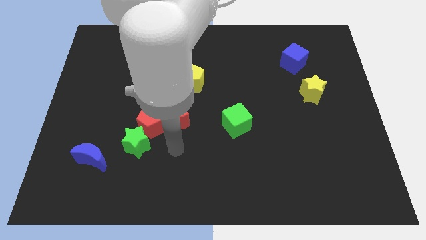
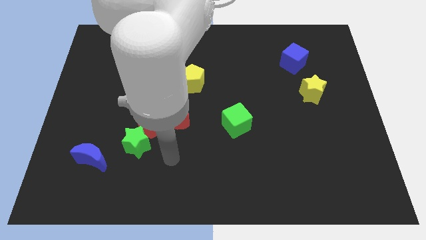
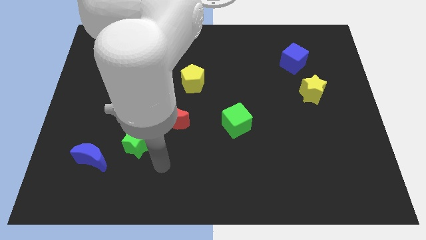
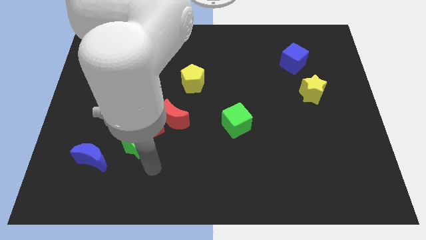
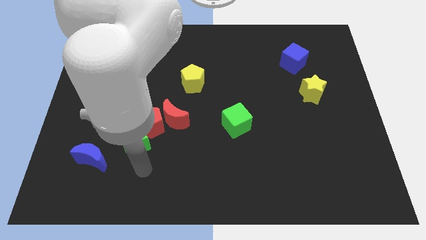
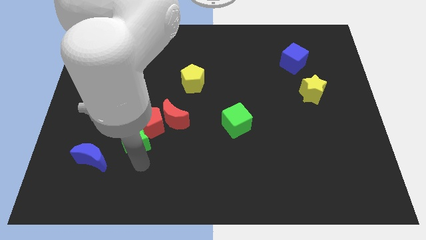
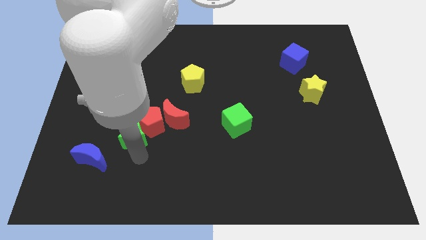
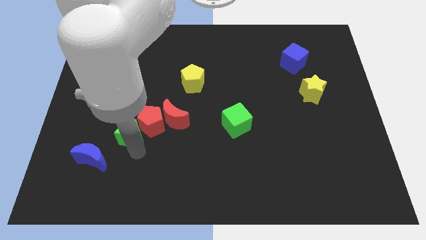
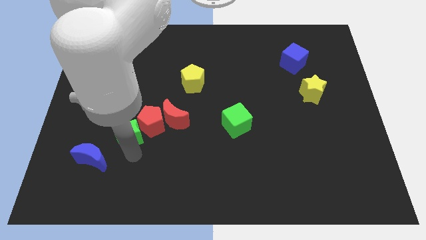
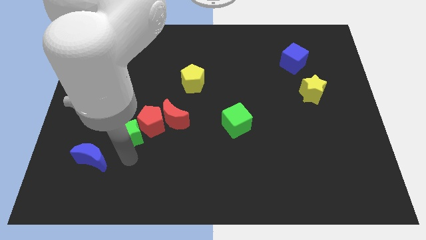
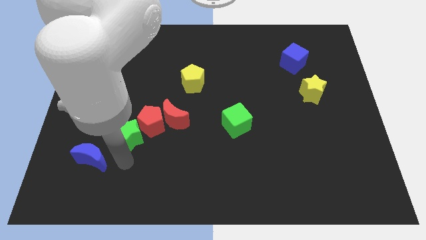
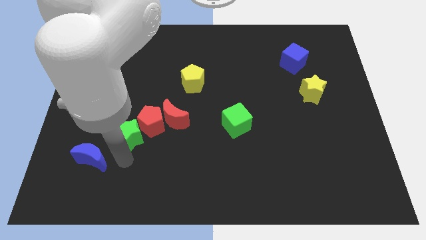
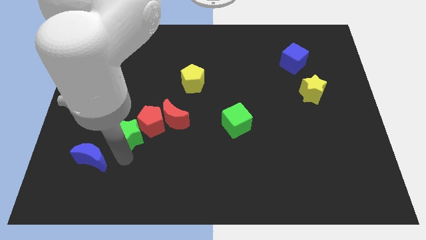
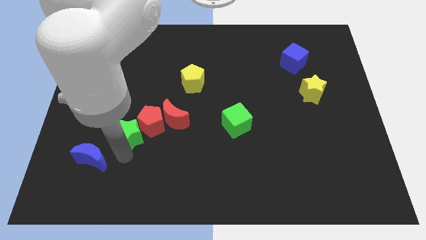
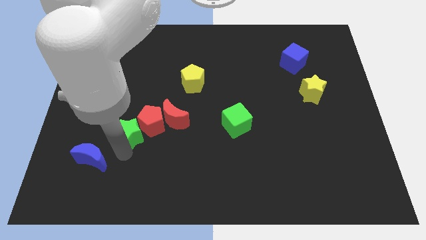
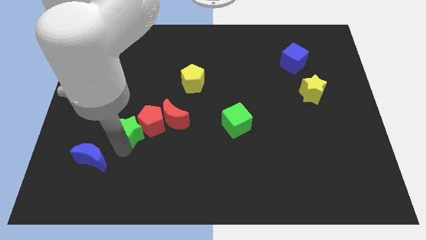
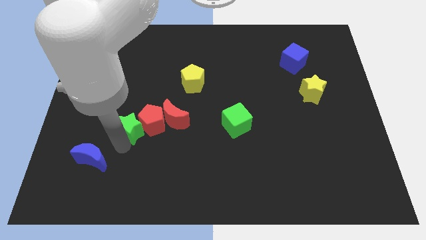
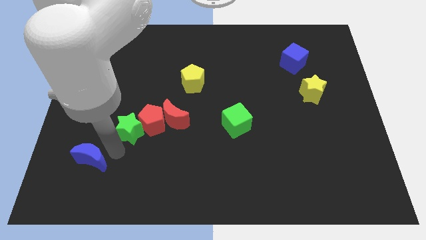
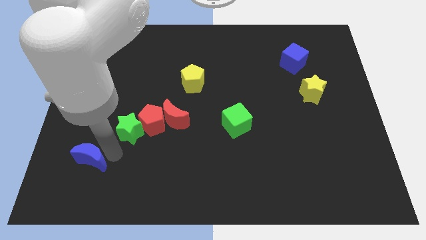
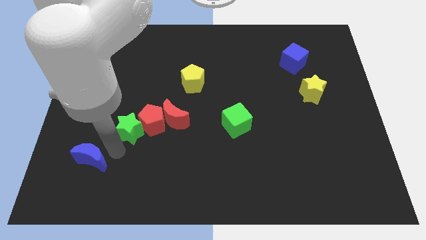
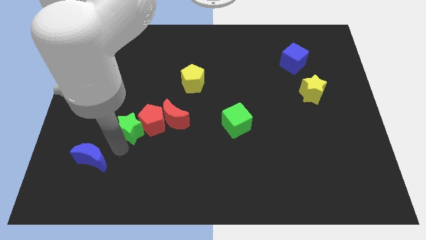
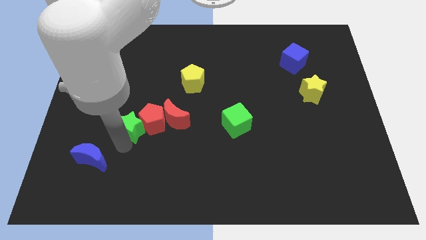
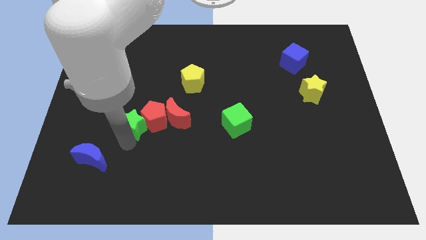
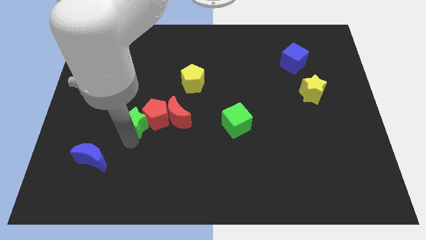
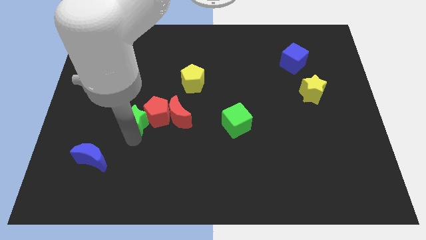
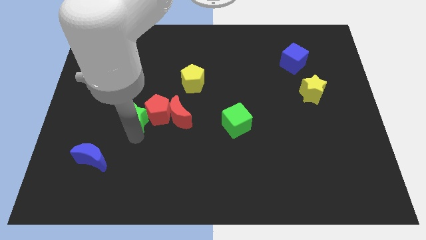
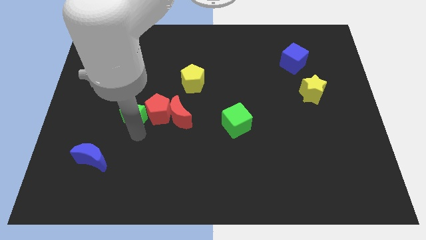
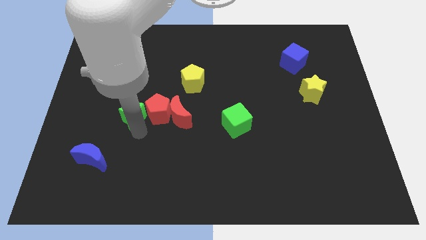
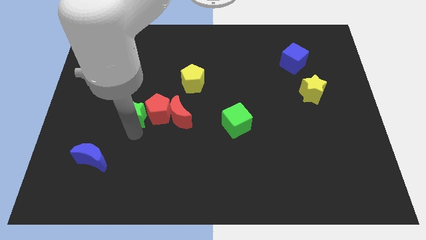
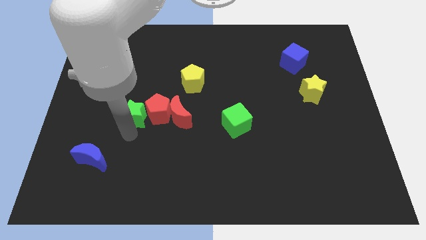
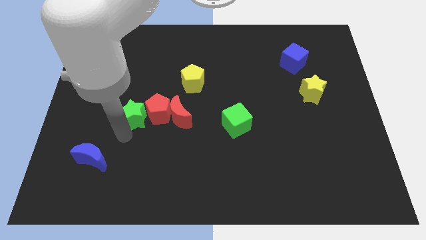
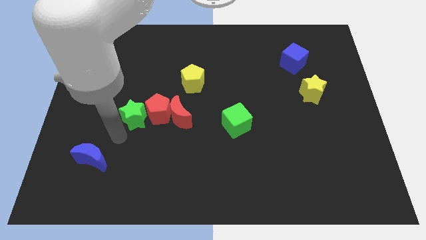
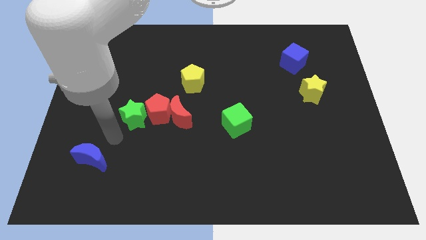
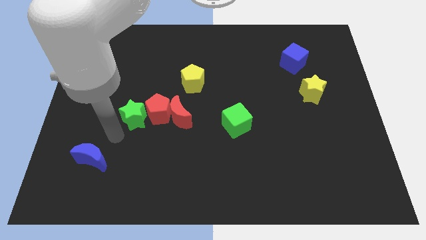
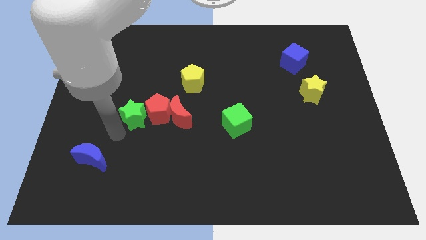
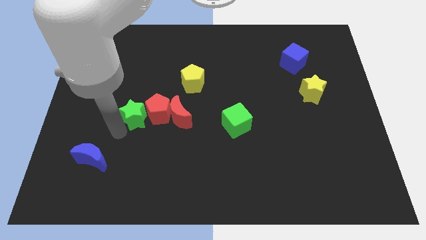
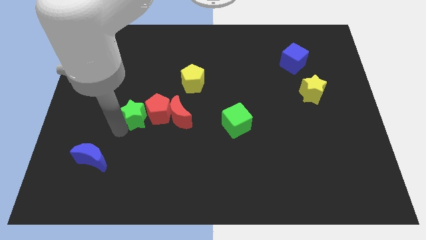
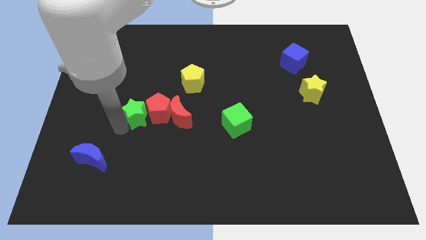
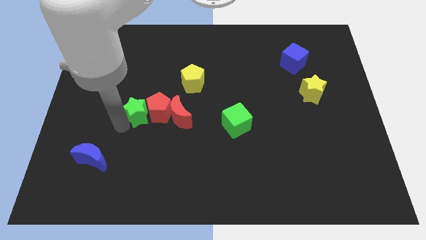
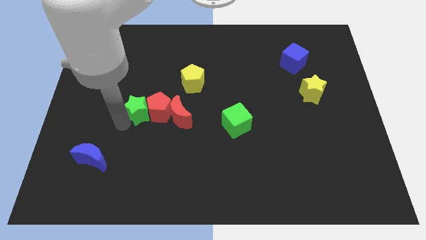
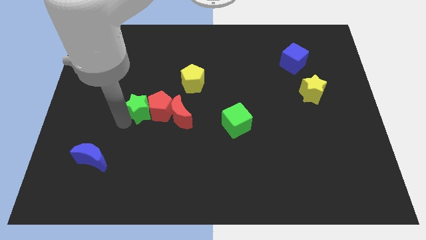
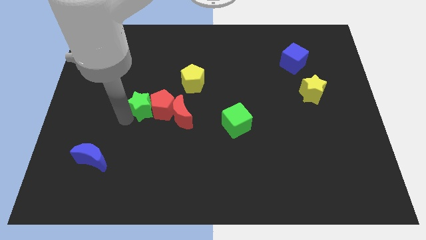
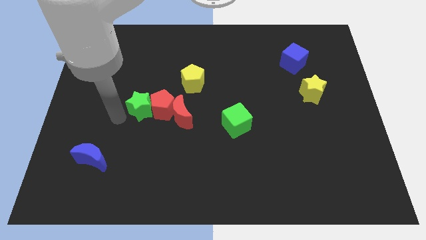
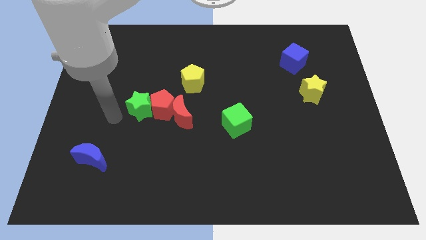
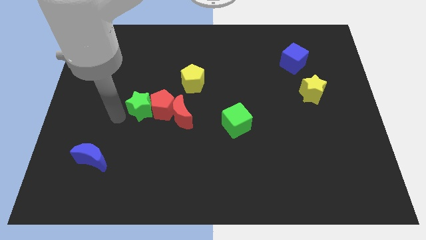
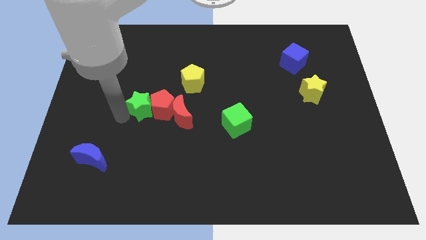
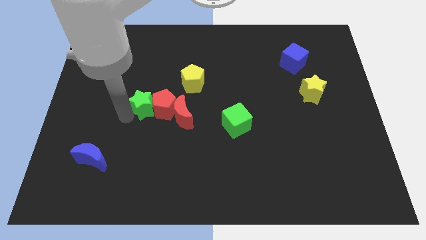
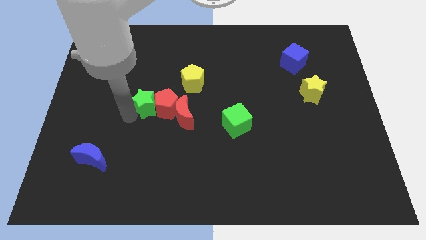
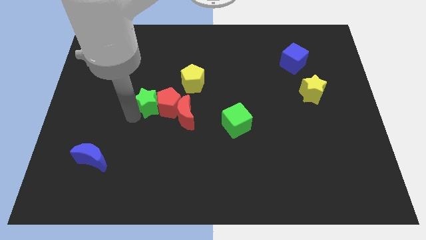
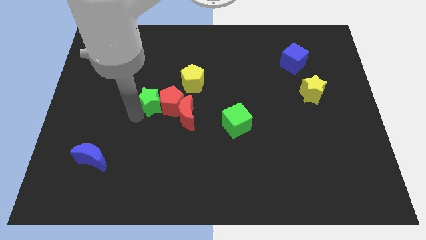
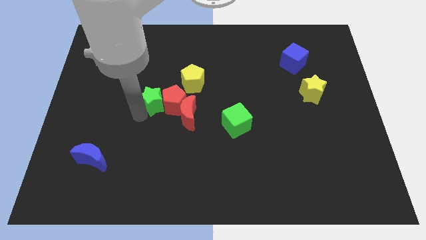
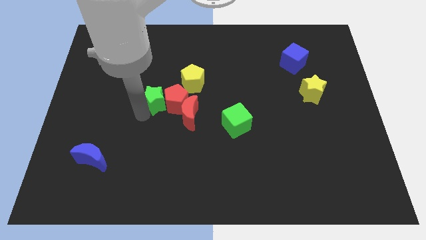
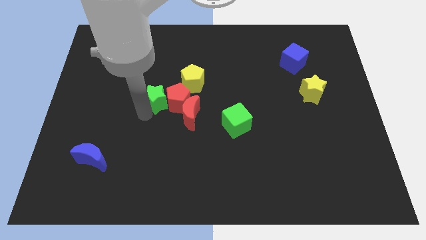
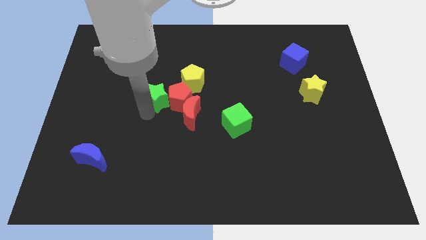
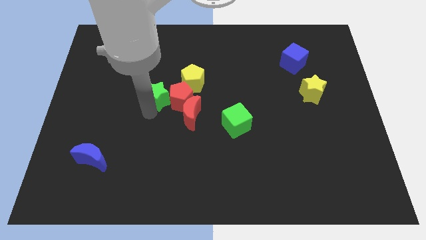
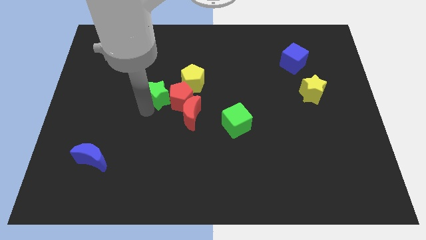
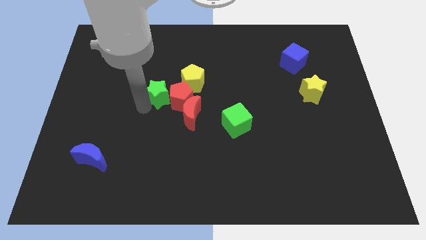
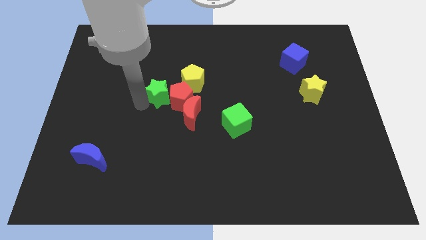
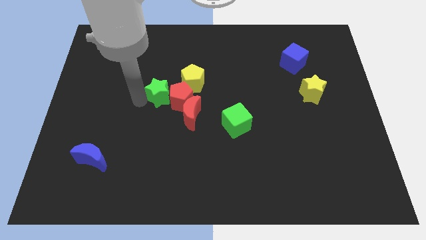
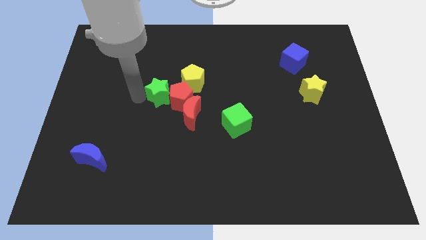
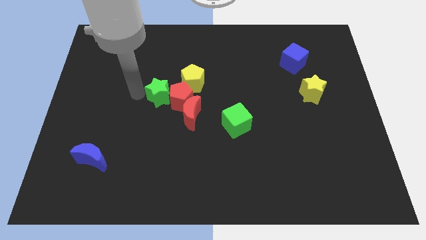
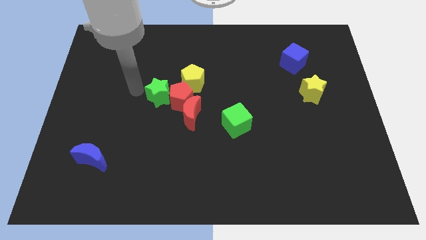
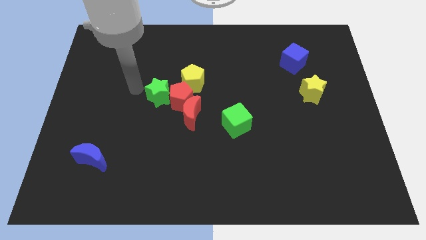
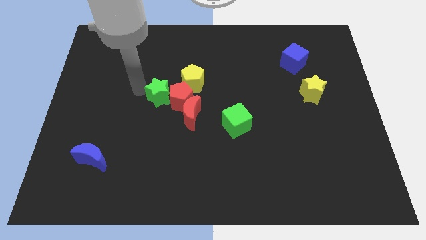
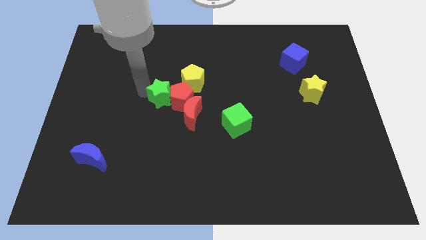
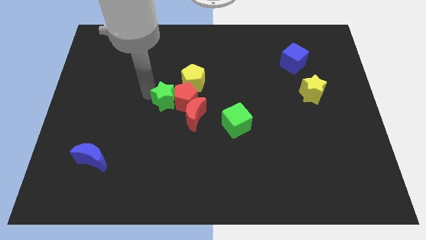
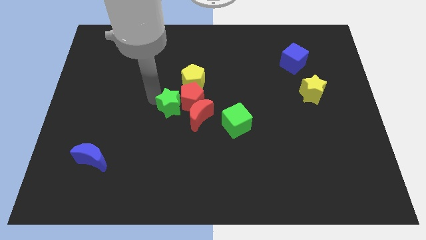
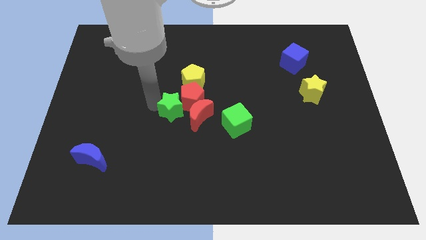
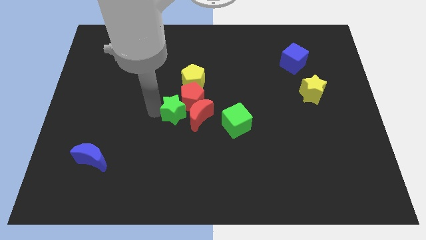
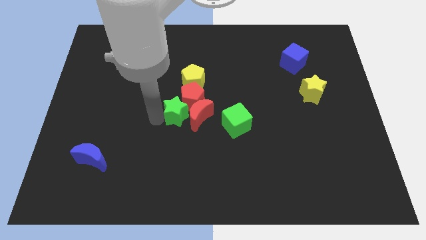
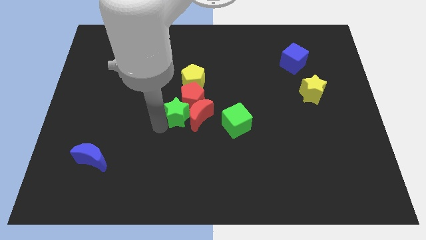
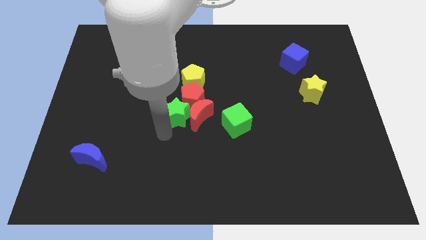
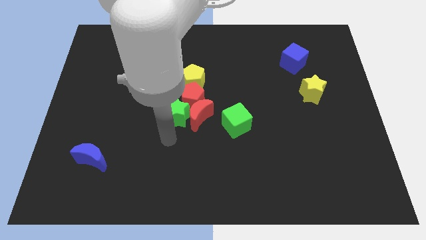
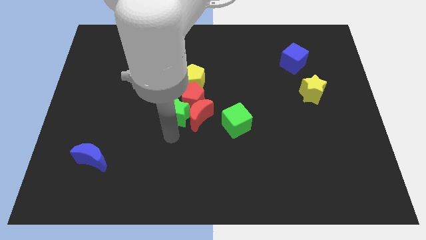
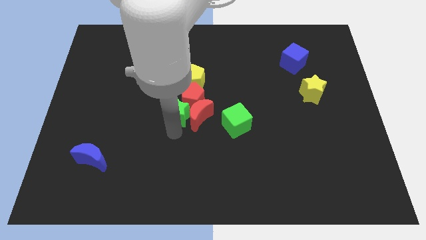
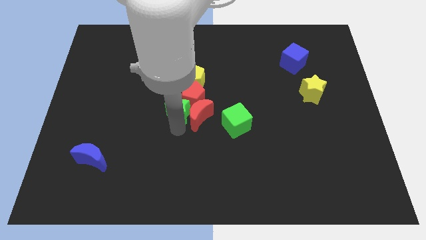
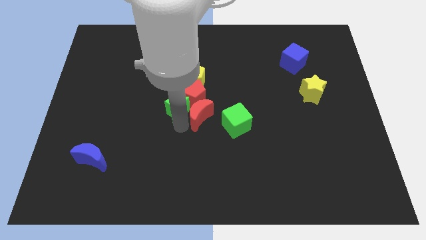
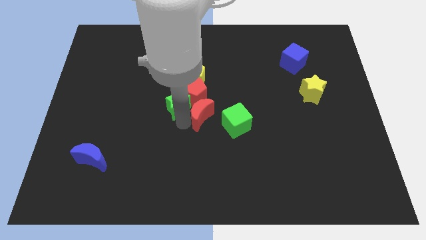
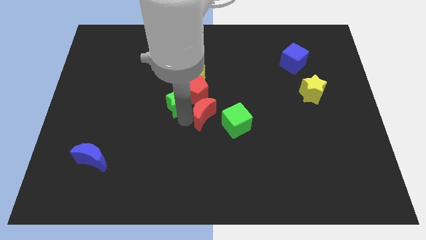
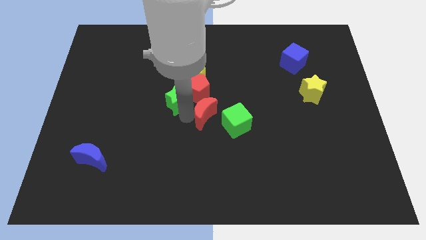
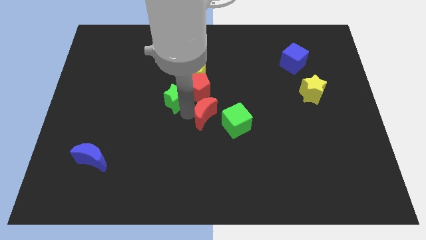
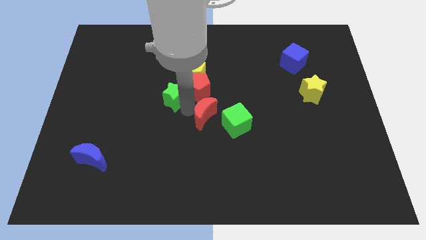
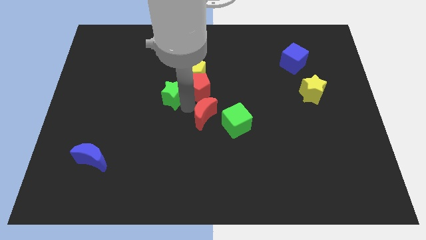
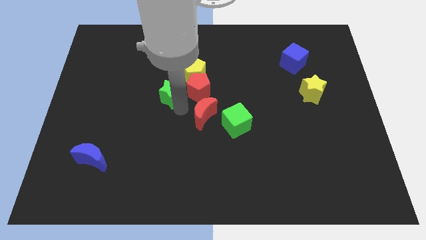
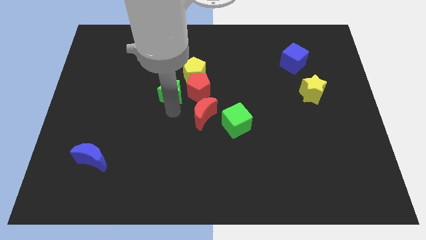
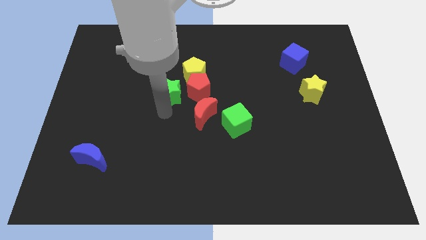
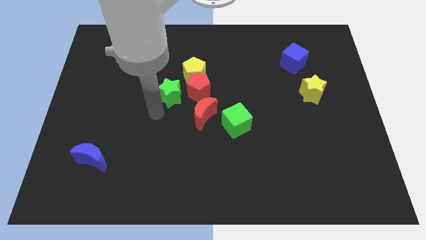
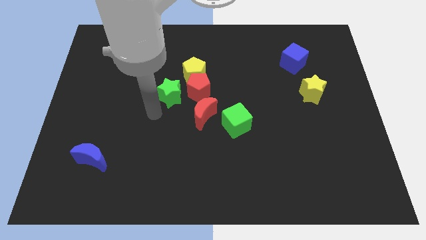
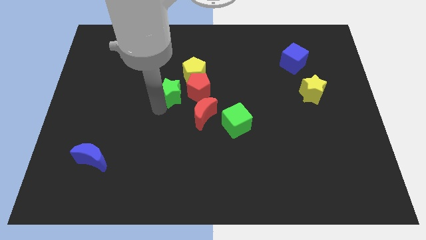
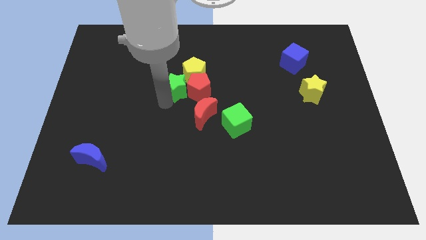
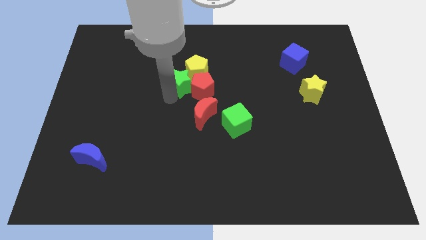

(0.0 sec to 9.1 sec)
slide the green star towards the yellow pentagon
